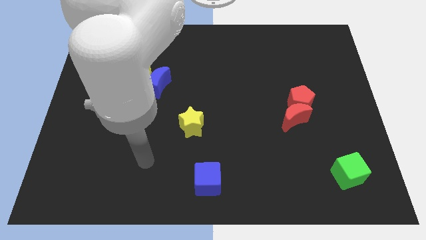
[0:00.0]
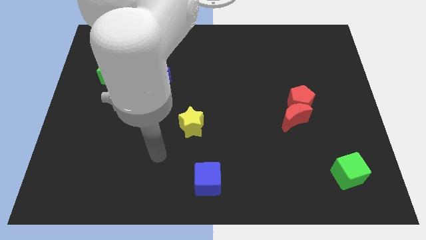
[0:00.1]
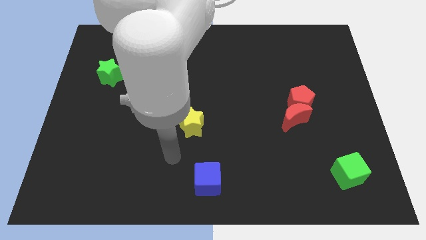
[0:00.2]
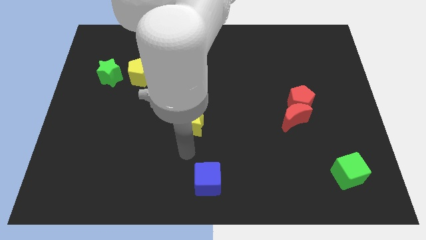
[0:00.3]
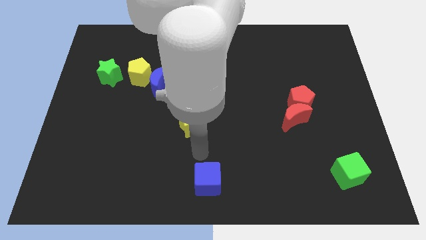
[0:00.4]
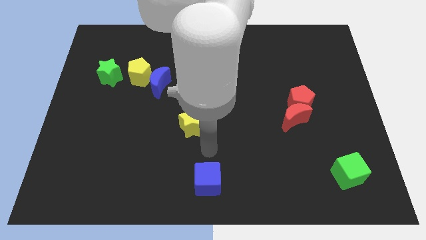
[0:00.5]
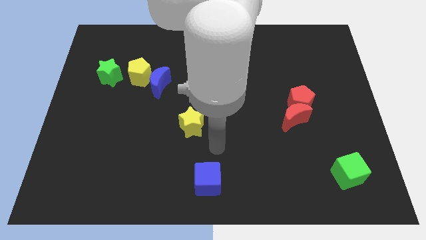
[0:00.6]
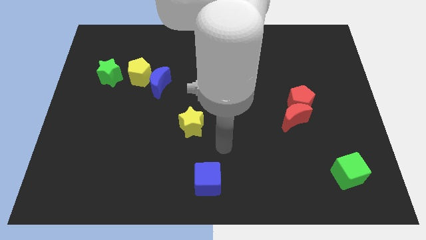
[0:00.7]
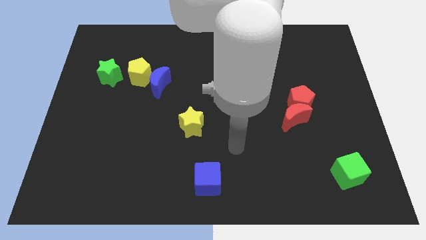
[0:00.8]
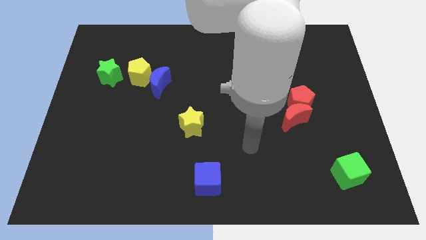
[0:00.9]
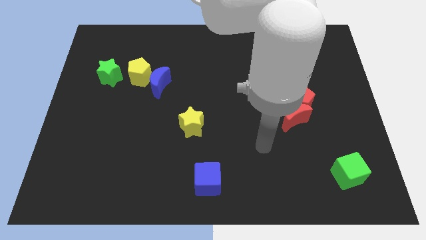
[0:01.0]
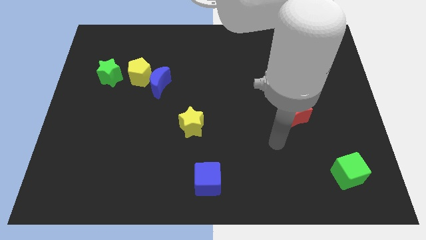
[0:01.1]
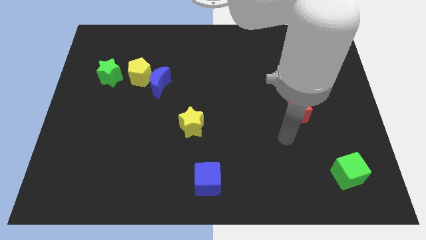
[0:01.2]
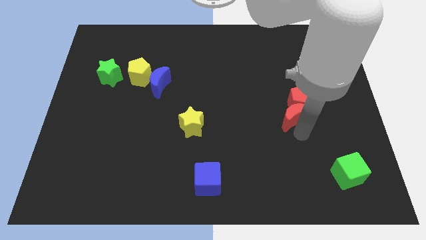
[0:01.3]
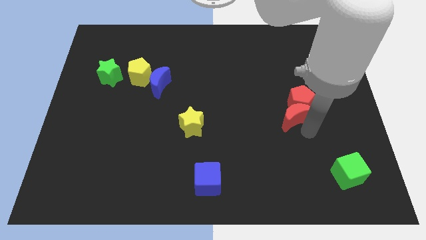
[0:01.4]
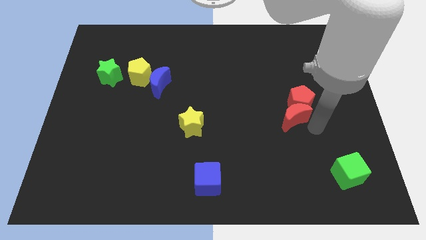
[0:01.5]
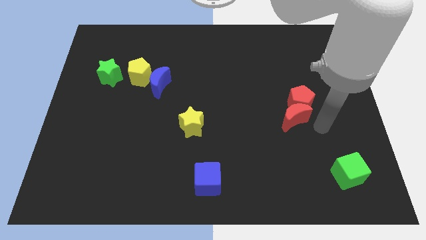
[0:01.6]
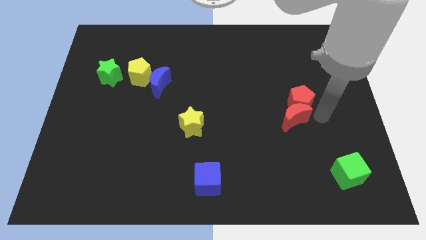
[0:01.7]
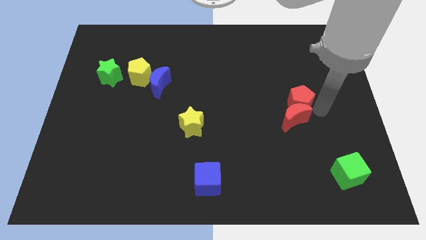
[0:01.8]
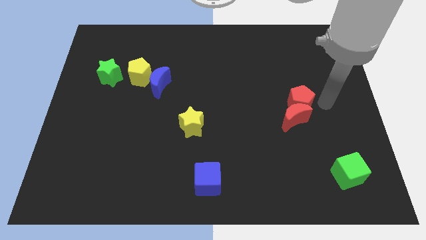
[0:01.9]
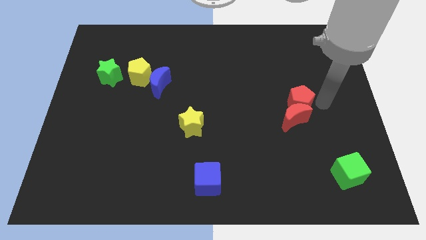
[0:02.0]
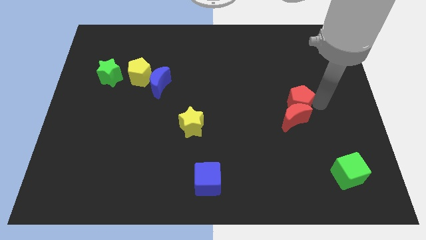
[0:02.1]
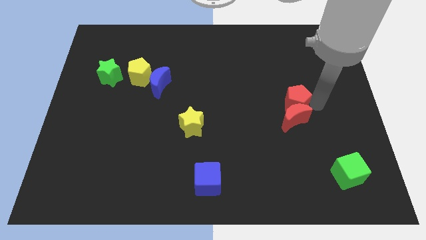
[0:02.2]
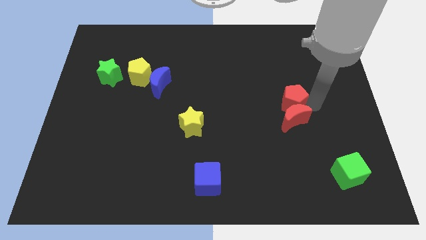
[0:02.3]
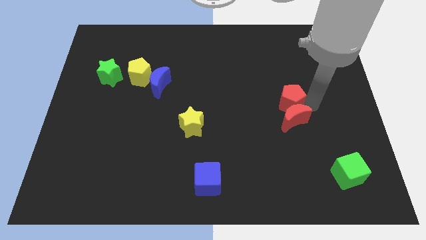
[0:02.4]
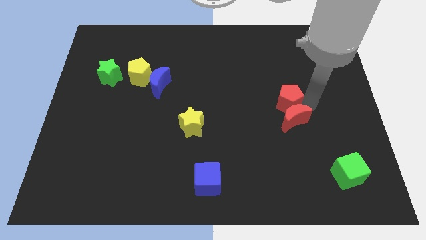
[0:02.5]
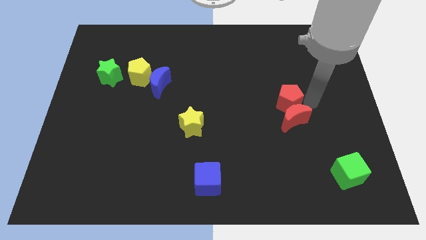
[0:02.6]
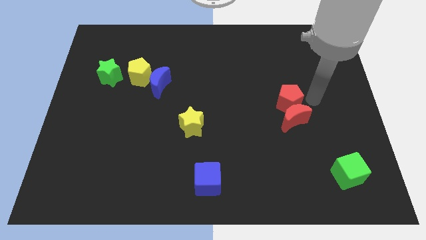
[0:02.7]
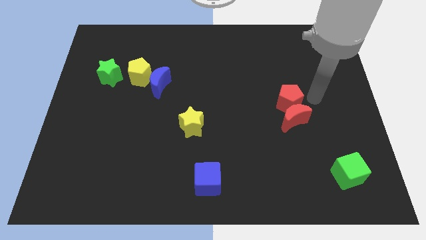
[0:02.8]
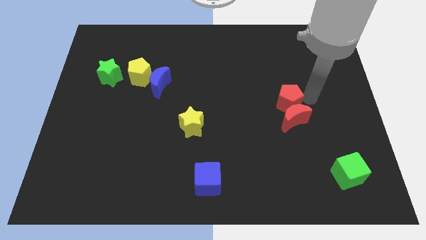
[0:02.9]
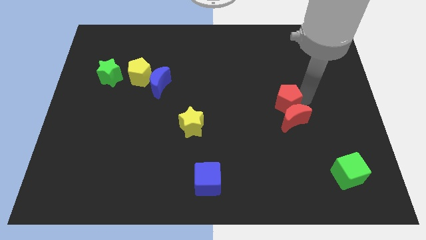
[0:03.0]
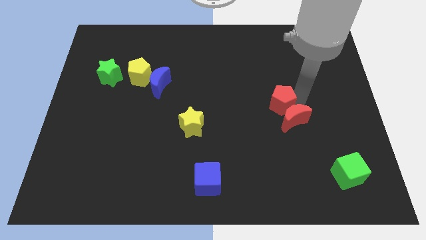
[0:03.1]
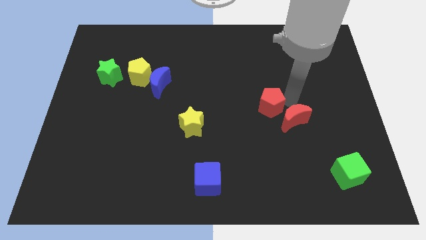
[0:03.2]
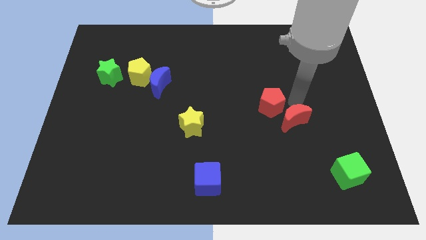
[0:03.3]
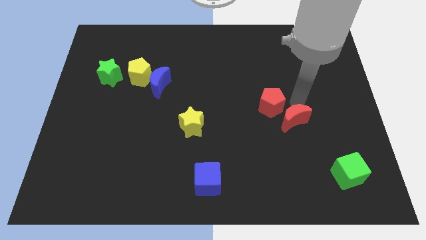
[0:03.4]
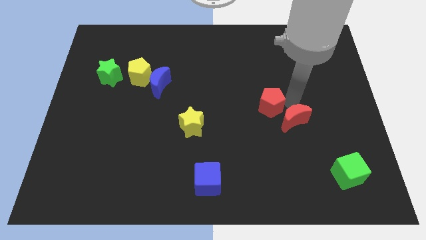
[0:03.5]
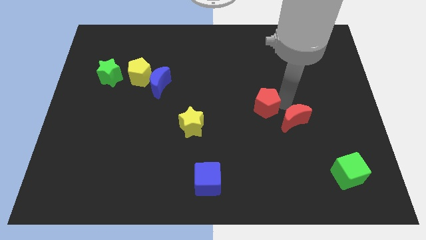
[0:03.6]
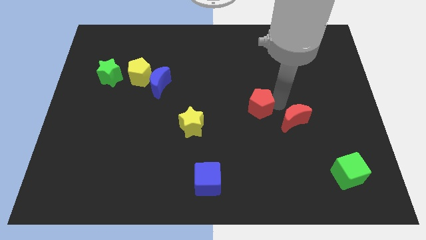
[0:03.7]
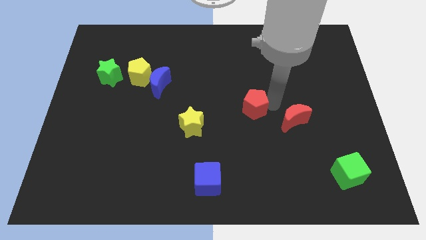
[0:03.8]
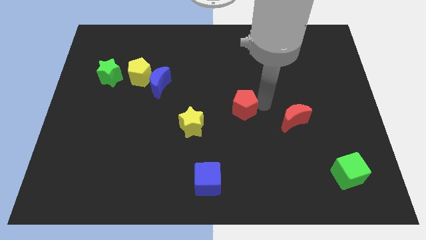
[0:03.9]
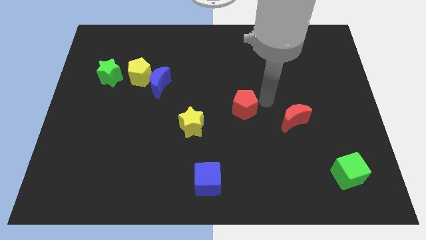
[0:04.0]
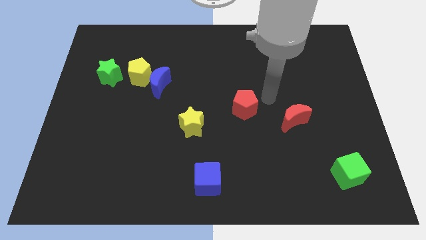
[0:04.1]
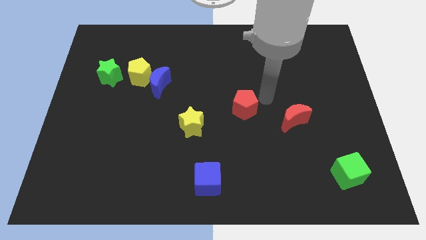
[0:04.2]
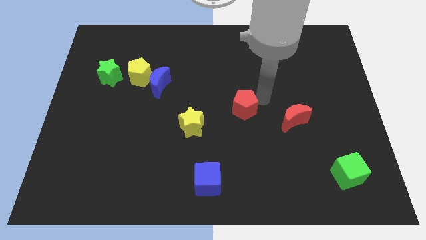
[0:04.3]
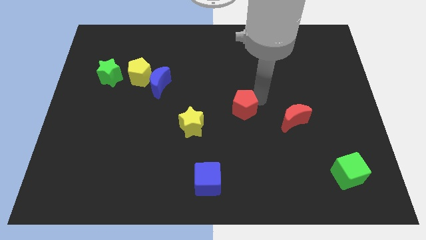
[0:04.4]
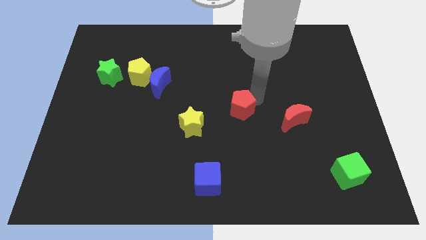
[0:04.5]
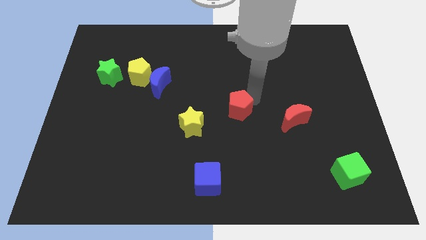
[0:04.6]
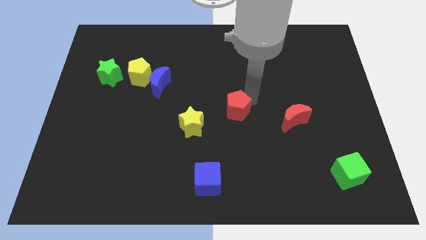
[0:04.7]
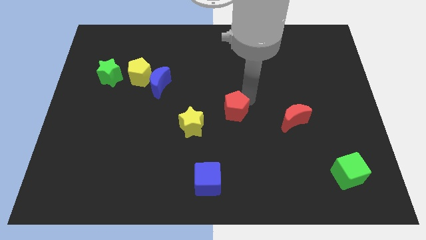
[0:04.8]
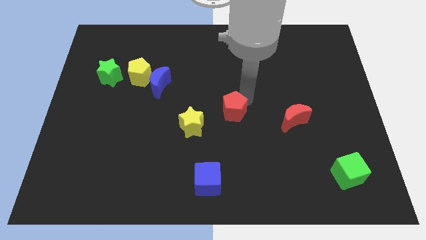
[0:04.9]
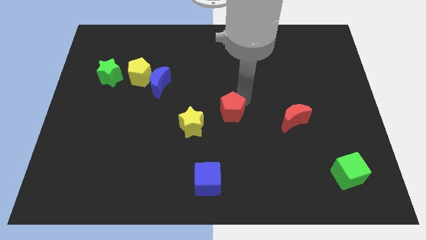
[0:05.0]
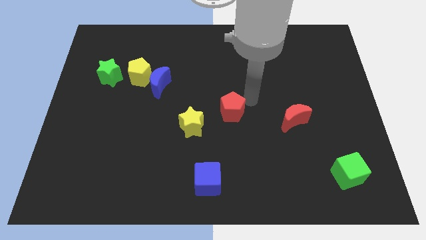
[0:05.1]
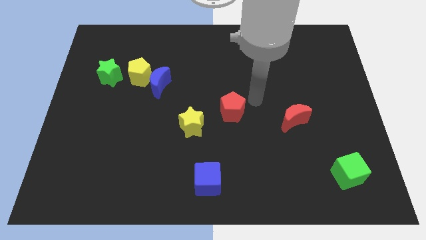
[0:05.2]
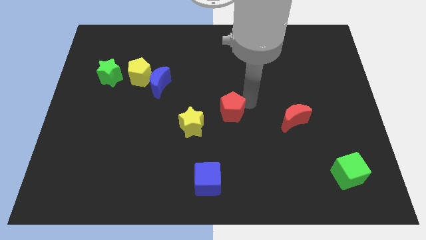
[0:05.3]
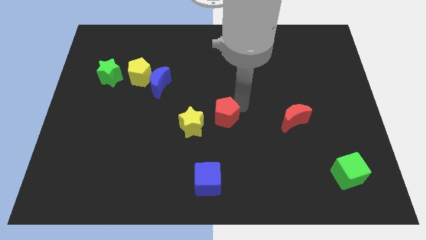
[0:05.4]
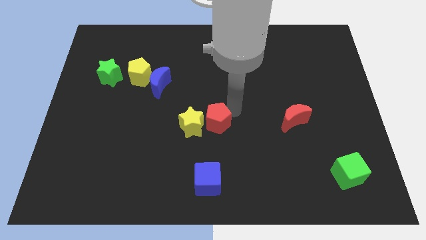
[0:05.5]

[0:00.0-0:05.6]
put the red pentagon close to the yellow star

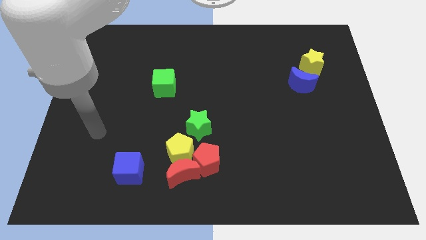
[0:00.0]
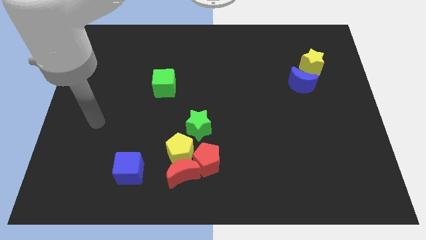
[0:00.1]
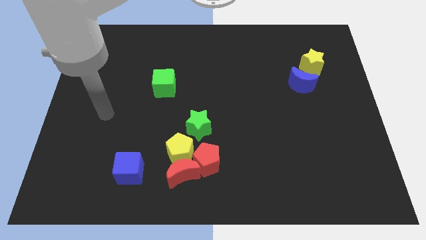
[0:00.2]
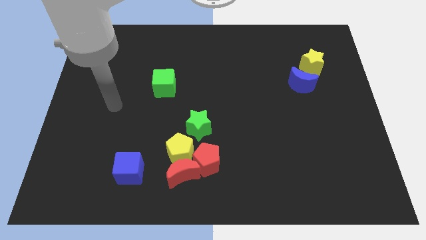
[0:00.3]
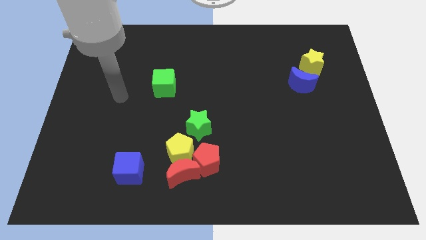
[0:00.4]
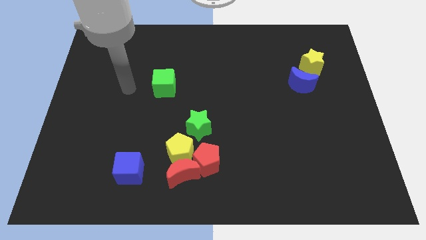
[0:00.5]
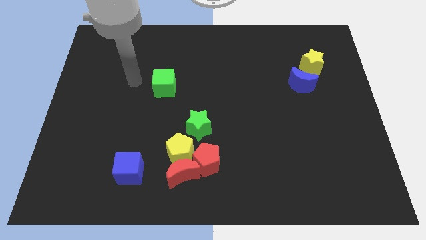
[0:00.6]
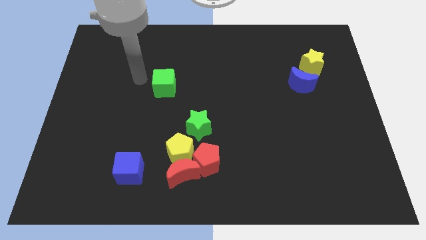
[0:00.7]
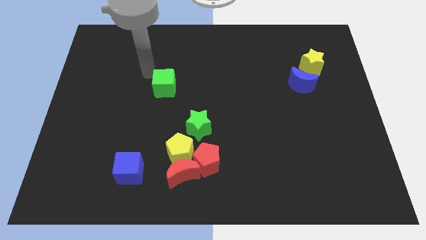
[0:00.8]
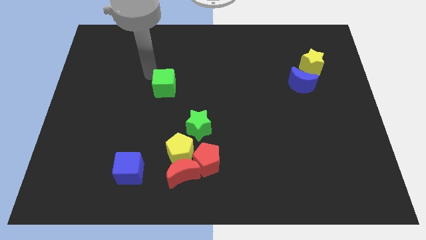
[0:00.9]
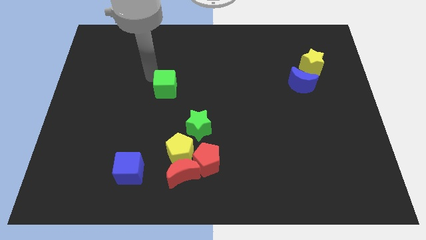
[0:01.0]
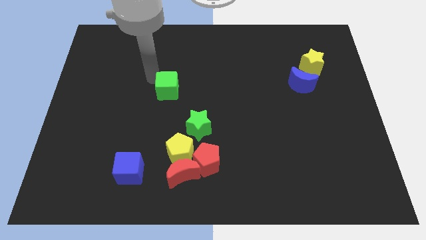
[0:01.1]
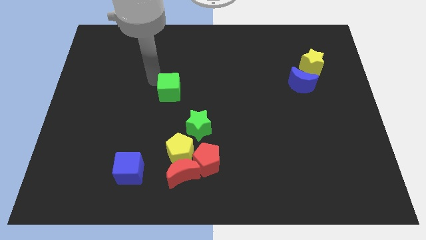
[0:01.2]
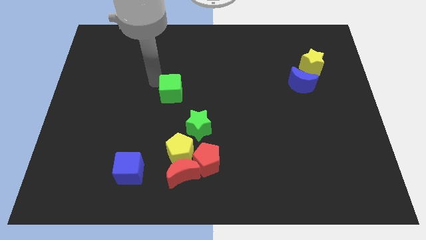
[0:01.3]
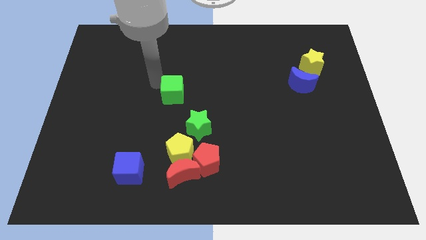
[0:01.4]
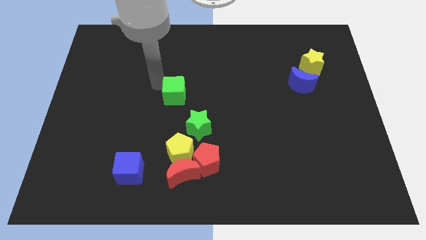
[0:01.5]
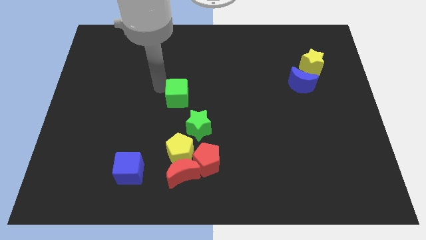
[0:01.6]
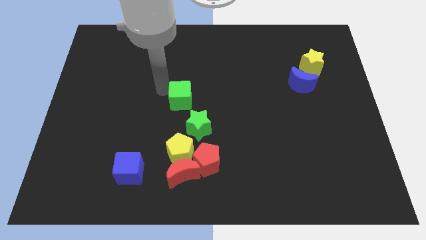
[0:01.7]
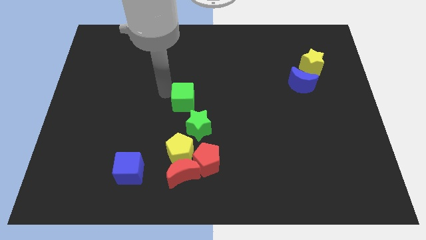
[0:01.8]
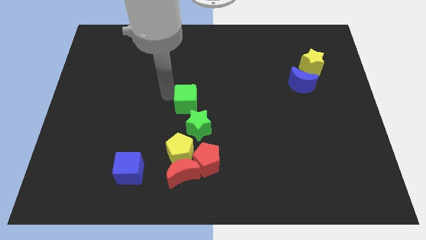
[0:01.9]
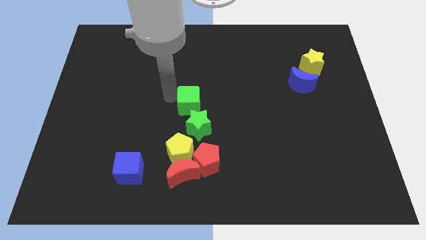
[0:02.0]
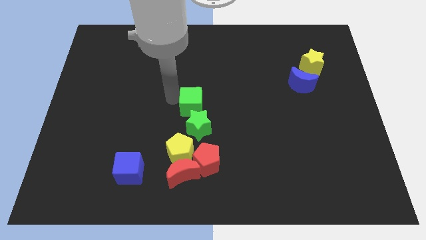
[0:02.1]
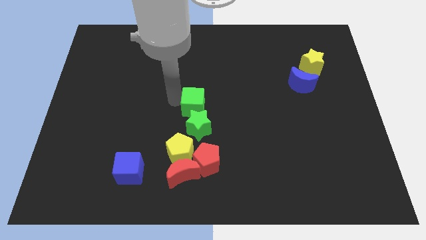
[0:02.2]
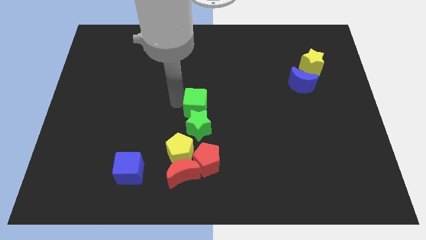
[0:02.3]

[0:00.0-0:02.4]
push the green cube towards the green star
